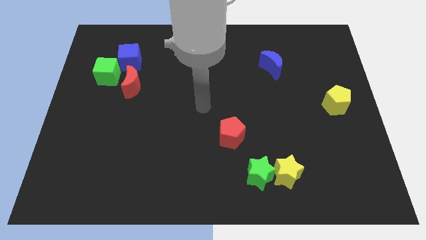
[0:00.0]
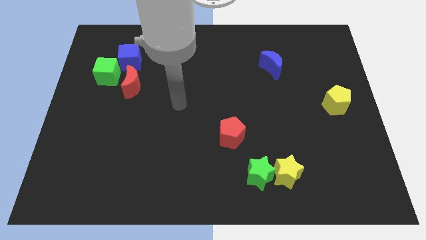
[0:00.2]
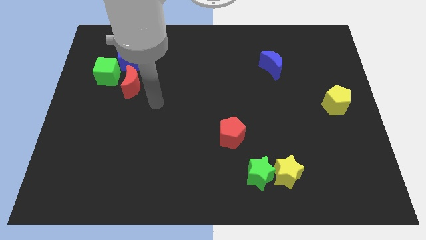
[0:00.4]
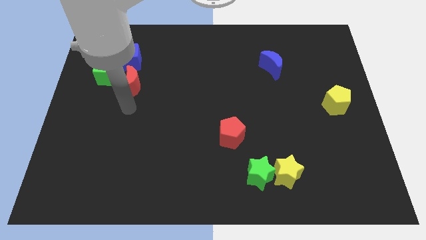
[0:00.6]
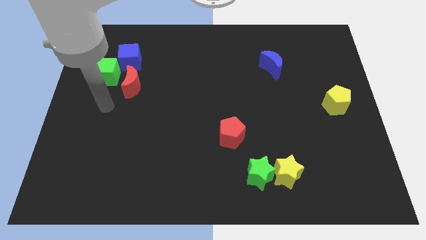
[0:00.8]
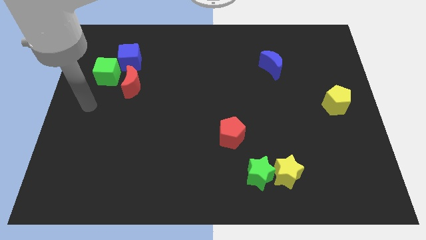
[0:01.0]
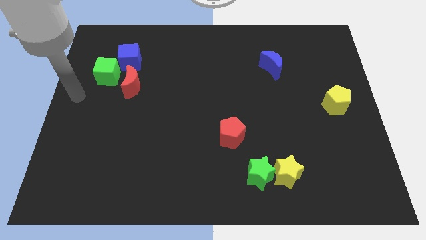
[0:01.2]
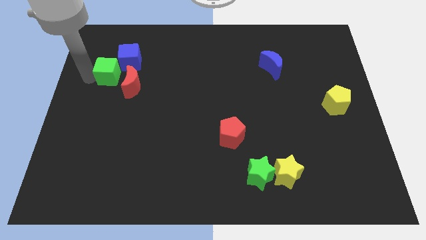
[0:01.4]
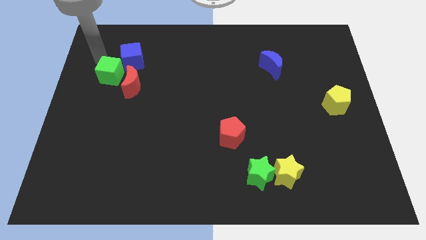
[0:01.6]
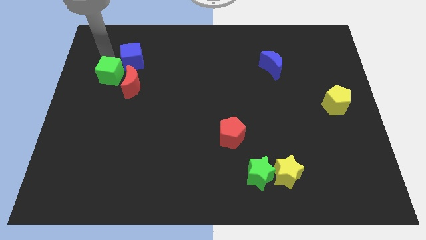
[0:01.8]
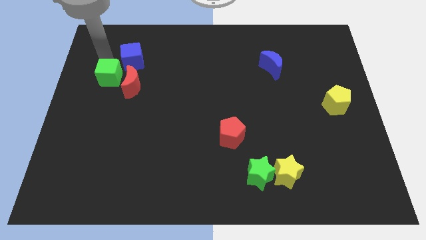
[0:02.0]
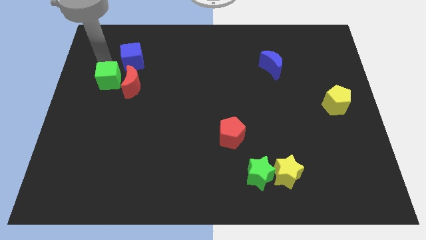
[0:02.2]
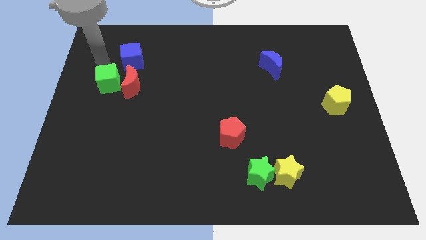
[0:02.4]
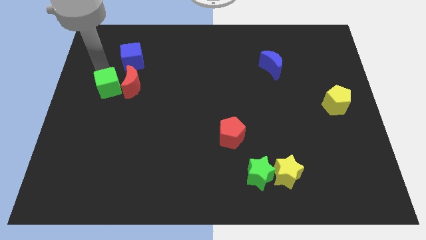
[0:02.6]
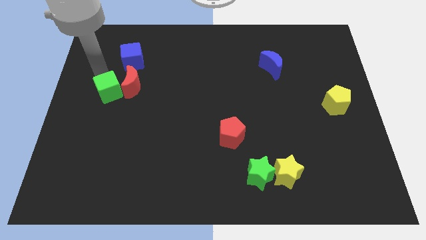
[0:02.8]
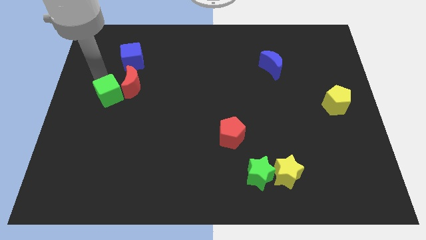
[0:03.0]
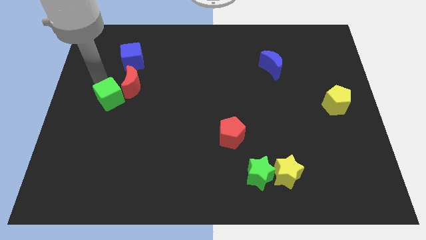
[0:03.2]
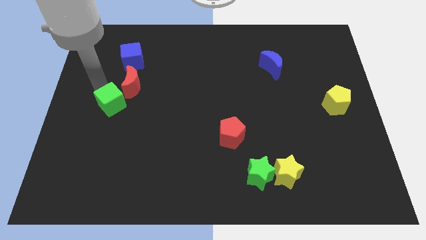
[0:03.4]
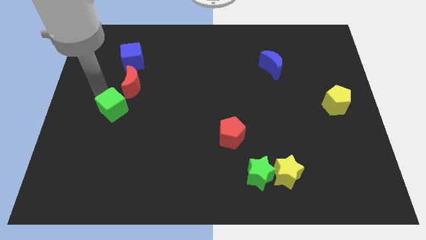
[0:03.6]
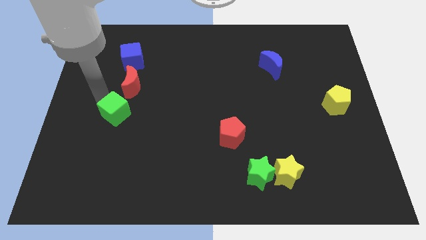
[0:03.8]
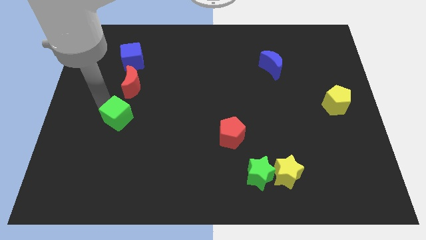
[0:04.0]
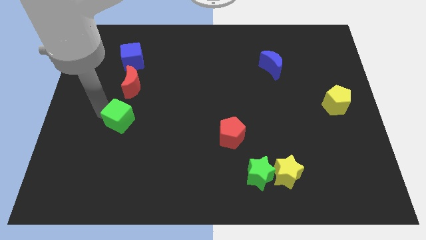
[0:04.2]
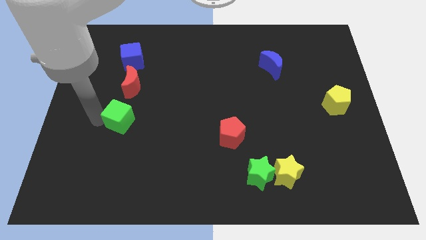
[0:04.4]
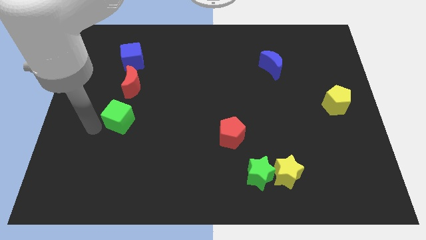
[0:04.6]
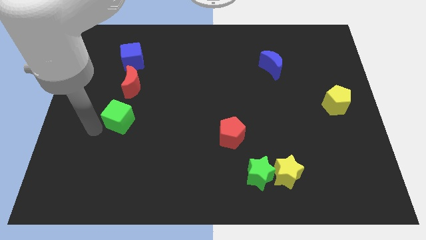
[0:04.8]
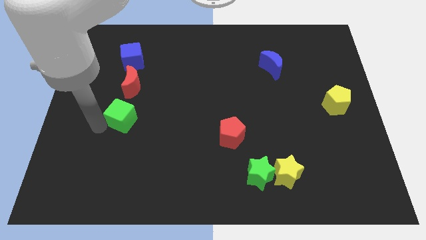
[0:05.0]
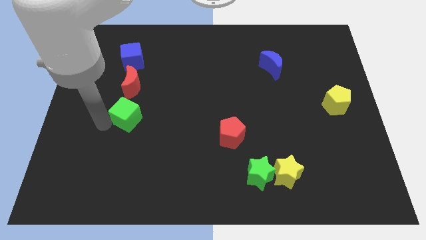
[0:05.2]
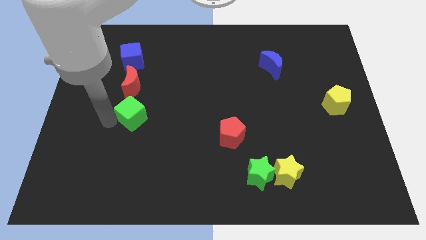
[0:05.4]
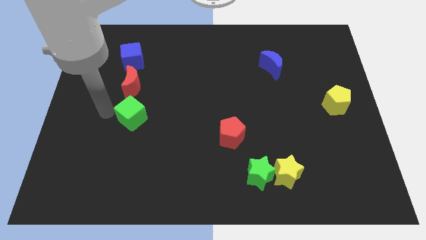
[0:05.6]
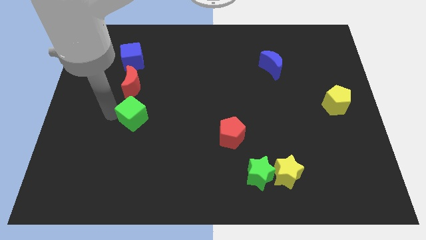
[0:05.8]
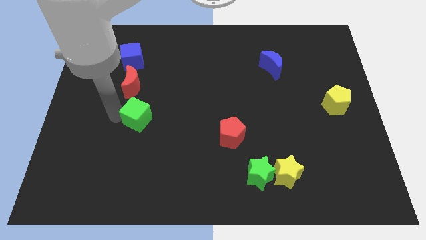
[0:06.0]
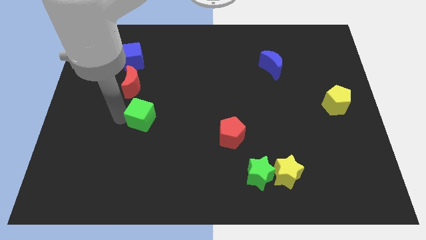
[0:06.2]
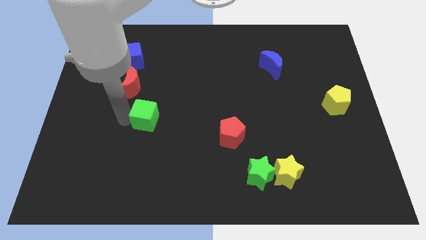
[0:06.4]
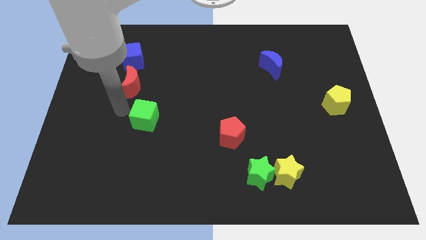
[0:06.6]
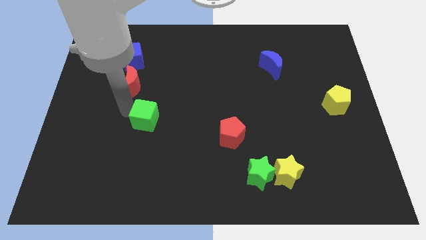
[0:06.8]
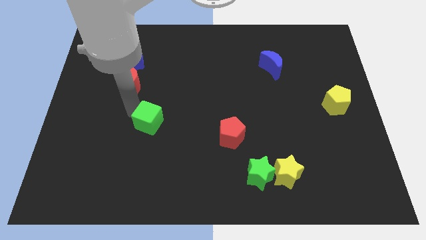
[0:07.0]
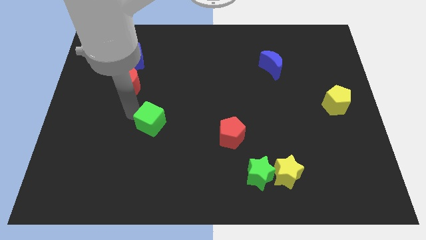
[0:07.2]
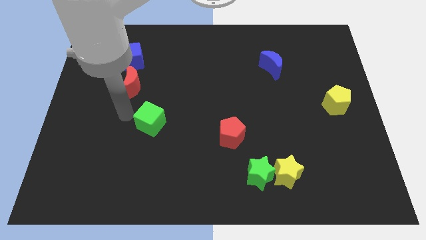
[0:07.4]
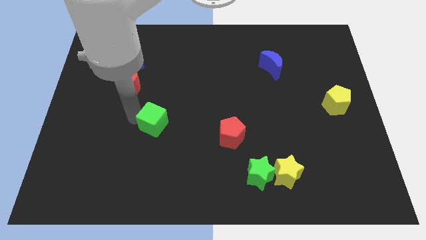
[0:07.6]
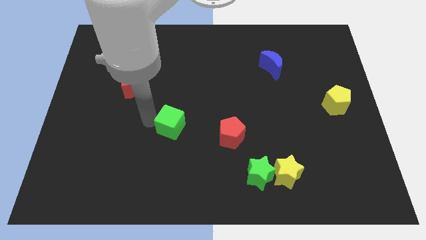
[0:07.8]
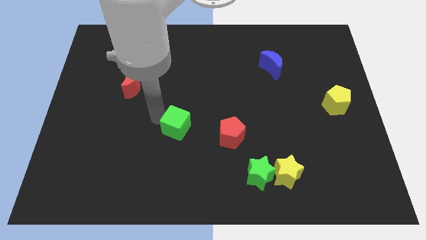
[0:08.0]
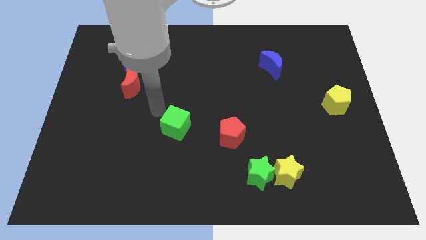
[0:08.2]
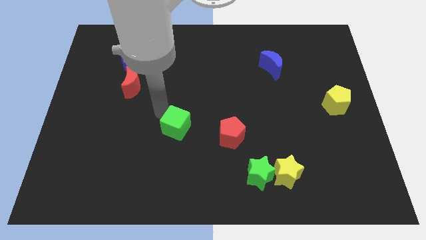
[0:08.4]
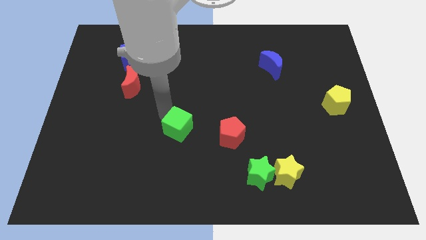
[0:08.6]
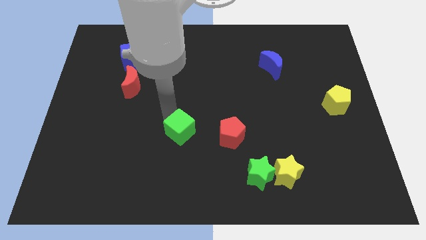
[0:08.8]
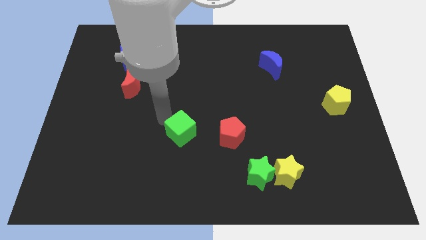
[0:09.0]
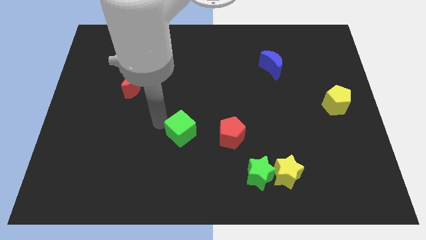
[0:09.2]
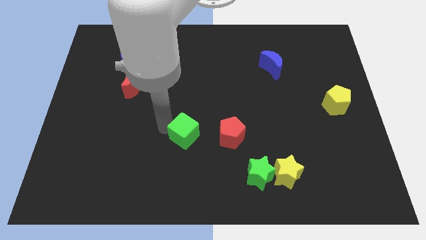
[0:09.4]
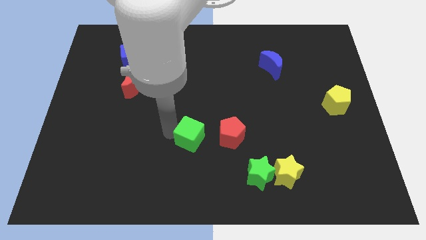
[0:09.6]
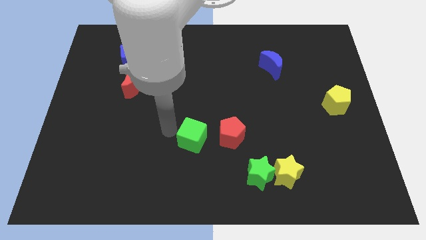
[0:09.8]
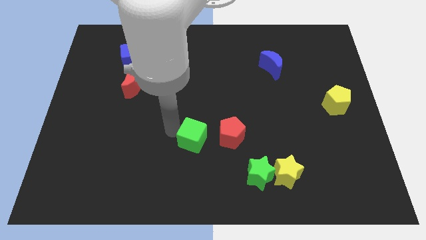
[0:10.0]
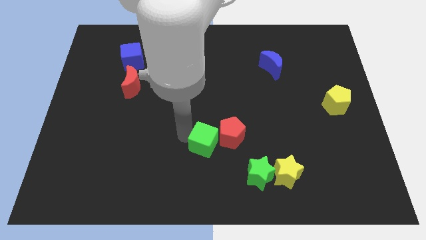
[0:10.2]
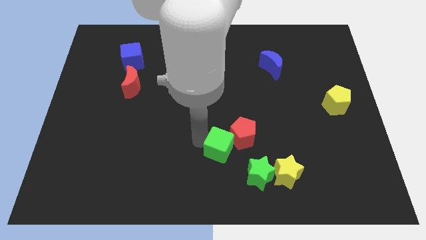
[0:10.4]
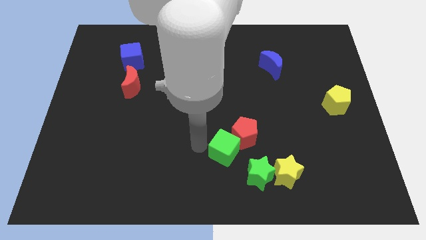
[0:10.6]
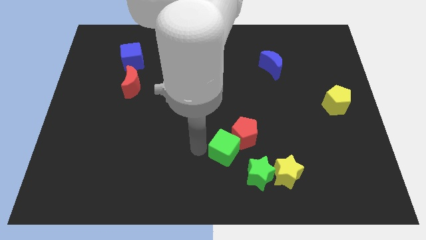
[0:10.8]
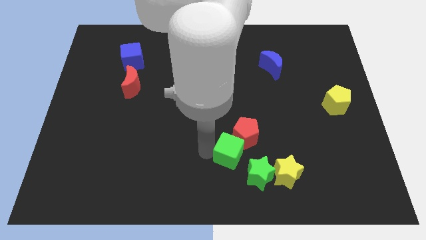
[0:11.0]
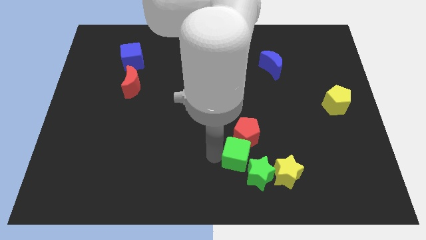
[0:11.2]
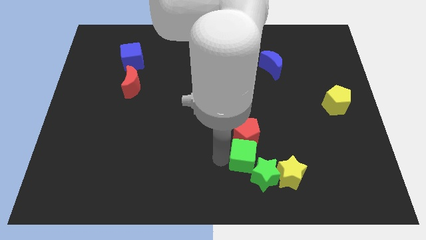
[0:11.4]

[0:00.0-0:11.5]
slide the green cube to the bottom right of the red pentagon

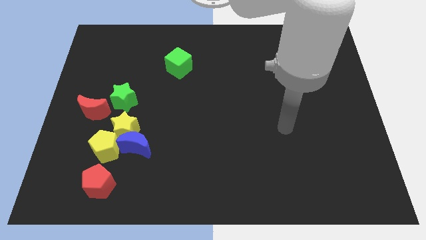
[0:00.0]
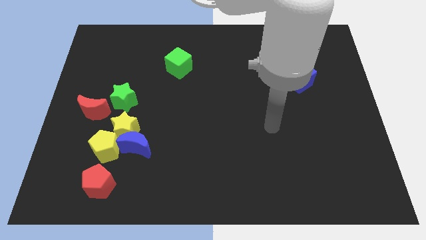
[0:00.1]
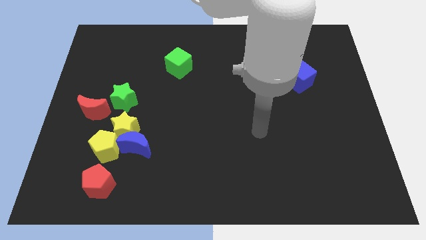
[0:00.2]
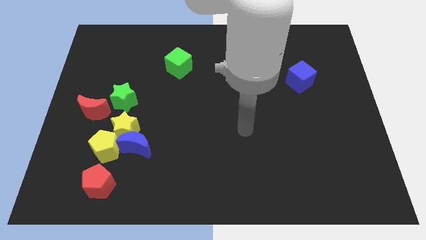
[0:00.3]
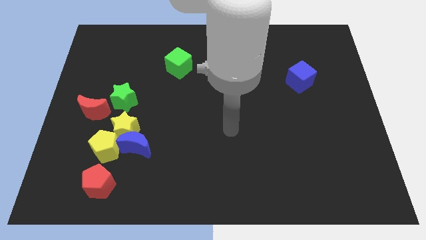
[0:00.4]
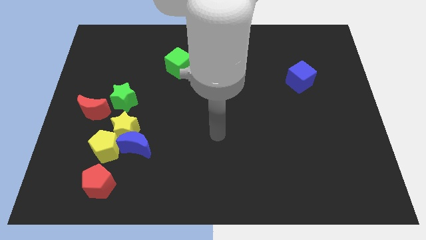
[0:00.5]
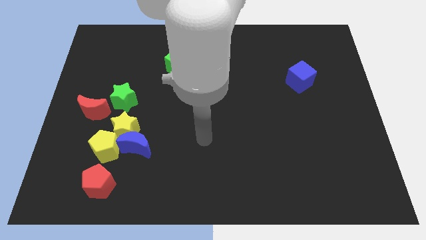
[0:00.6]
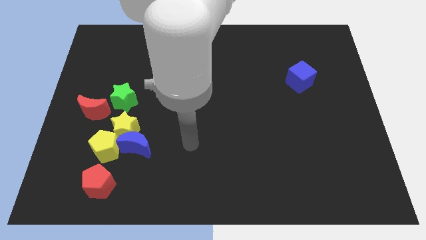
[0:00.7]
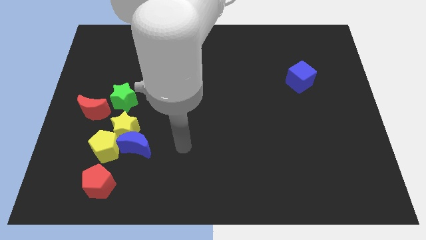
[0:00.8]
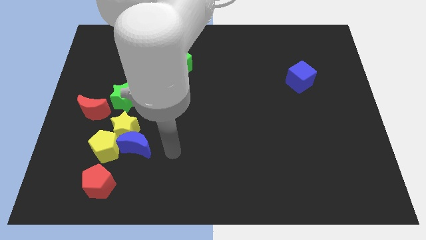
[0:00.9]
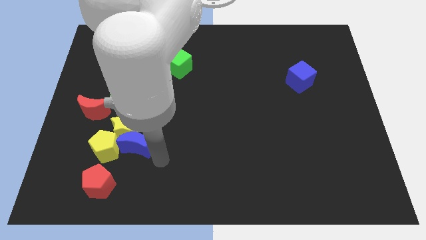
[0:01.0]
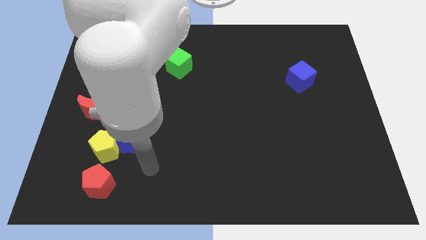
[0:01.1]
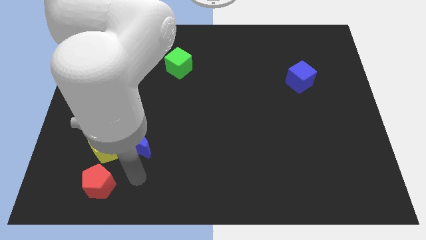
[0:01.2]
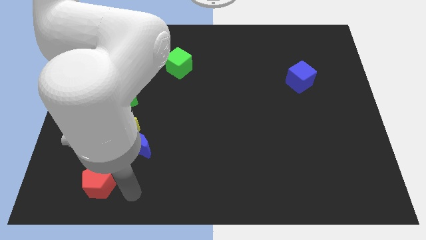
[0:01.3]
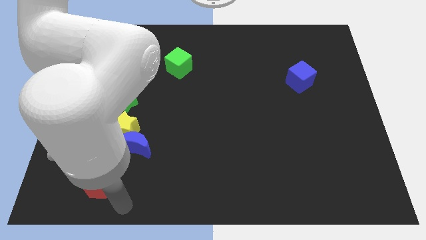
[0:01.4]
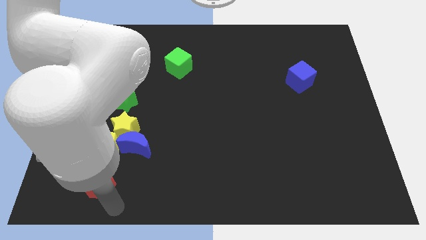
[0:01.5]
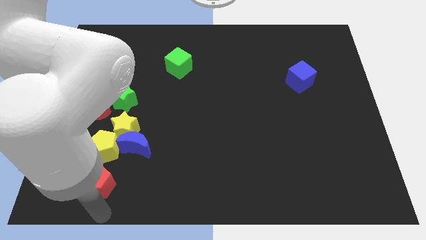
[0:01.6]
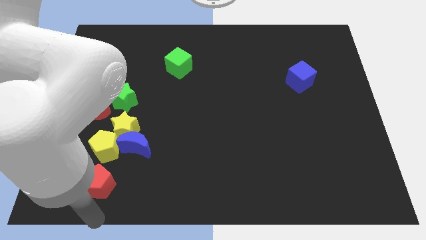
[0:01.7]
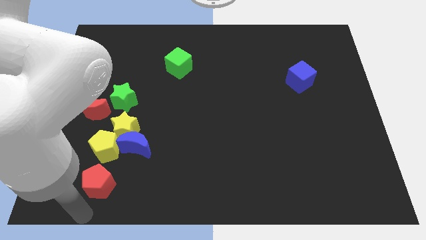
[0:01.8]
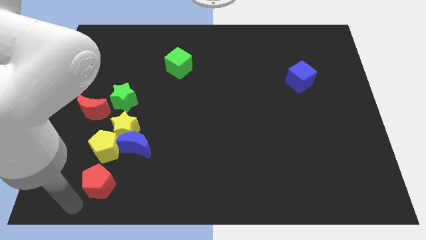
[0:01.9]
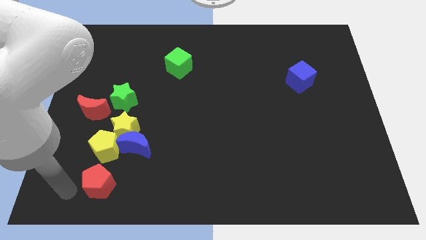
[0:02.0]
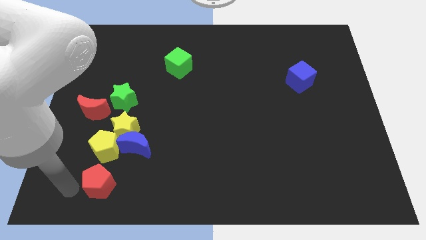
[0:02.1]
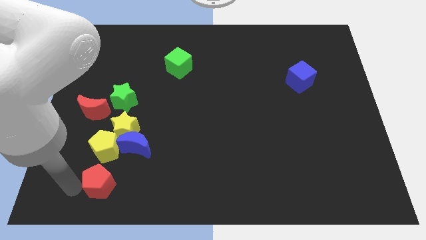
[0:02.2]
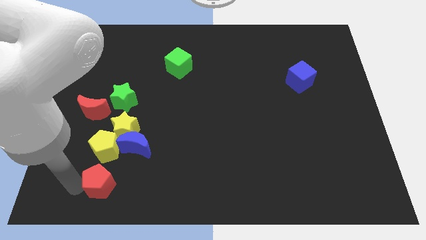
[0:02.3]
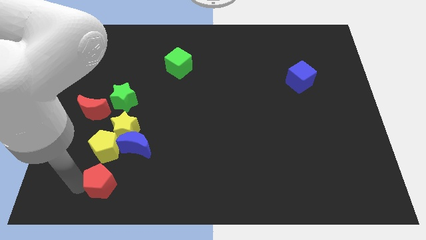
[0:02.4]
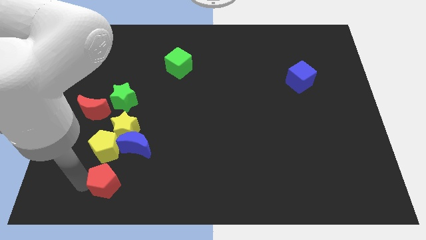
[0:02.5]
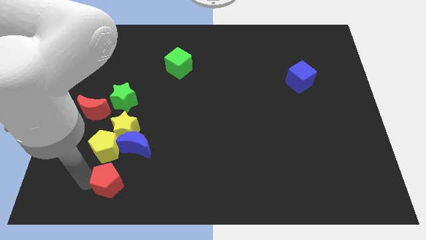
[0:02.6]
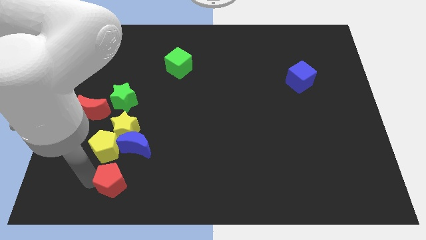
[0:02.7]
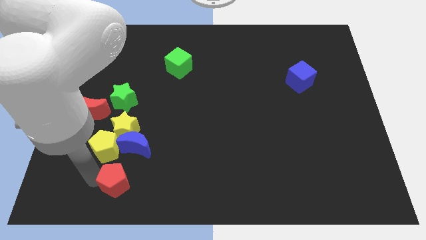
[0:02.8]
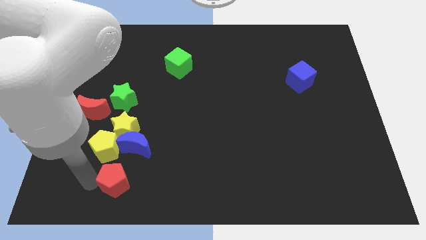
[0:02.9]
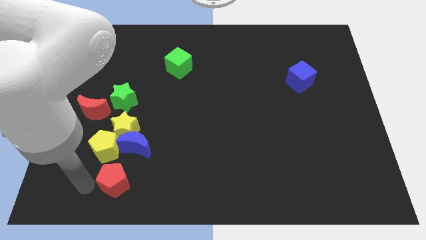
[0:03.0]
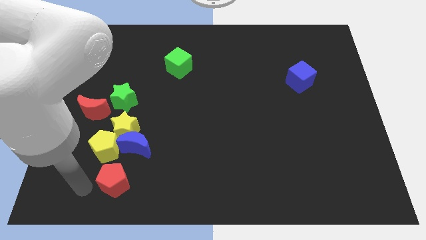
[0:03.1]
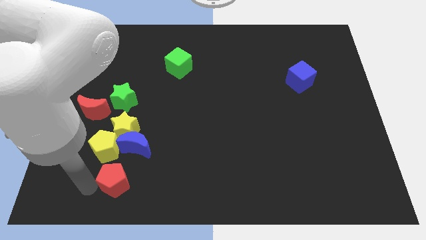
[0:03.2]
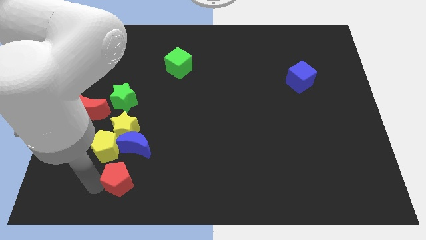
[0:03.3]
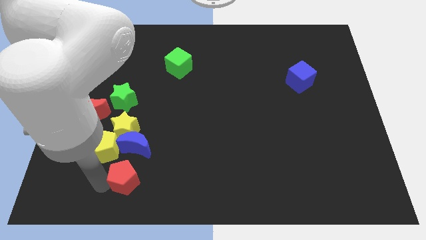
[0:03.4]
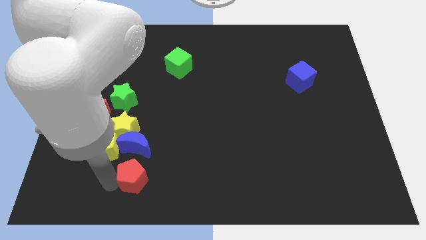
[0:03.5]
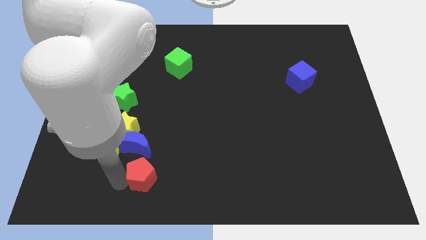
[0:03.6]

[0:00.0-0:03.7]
put the red pentagon to the bottom right side of the blue moon
